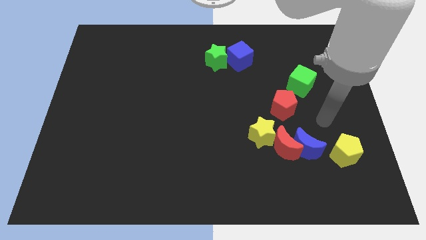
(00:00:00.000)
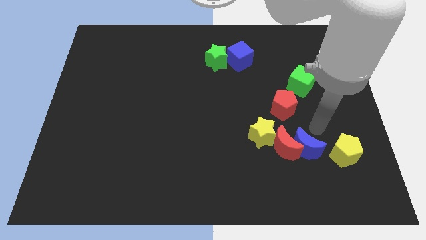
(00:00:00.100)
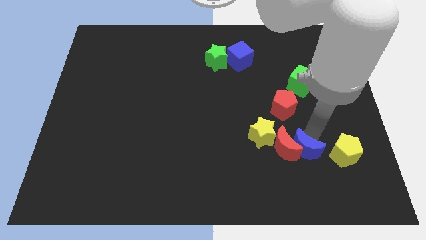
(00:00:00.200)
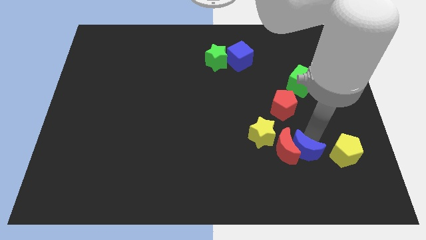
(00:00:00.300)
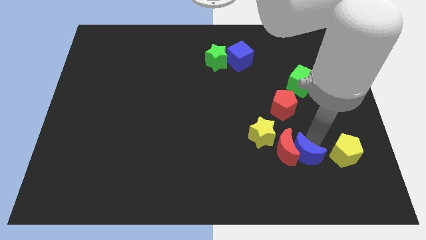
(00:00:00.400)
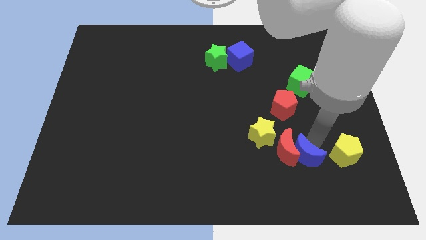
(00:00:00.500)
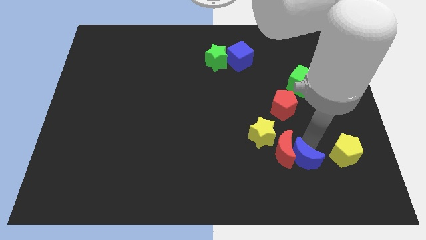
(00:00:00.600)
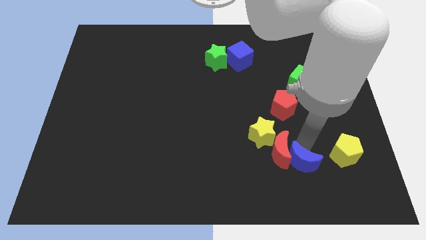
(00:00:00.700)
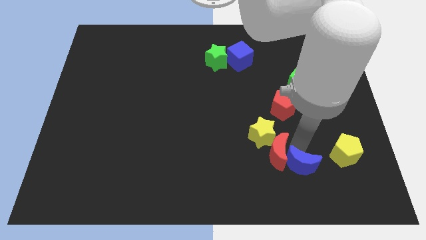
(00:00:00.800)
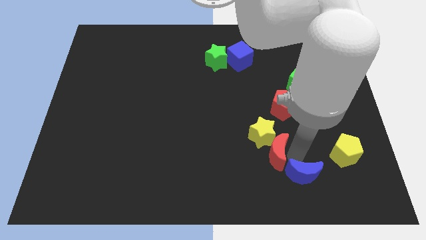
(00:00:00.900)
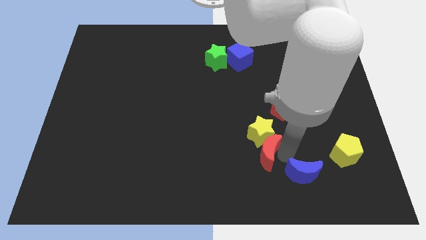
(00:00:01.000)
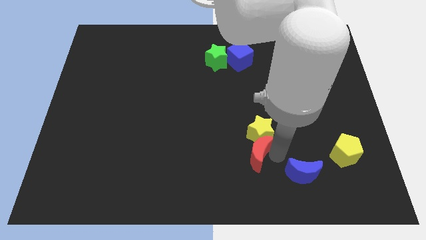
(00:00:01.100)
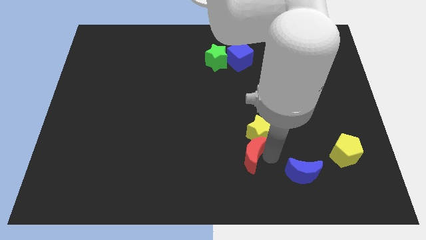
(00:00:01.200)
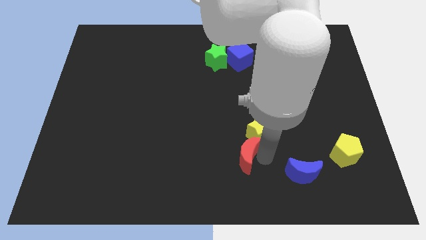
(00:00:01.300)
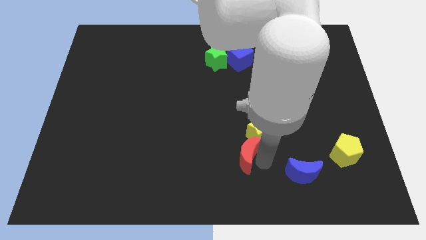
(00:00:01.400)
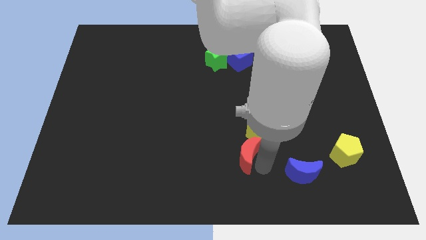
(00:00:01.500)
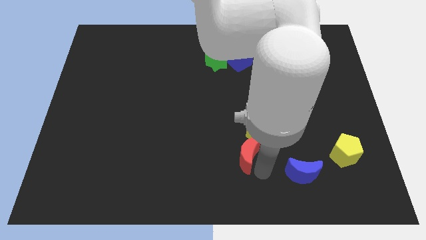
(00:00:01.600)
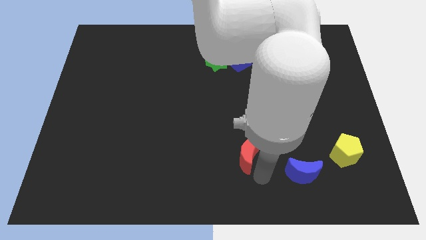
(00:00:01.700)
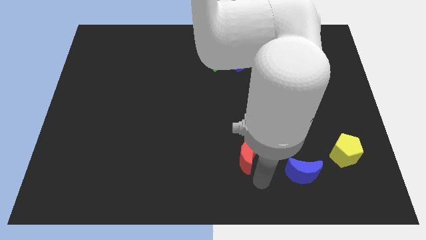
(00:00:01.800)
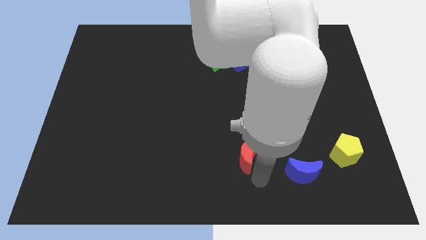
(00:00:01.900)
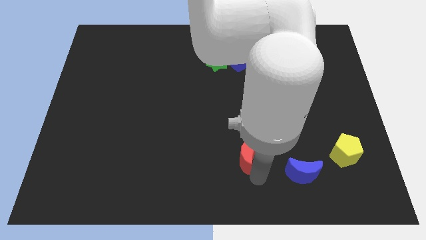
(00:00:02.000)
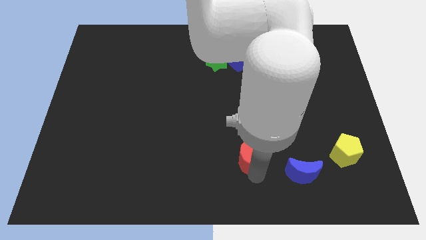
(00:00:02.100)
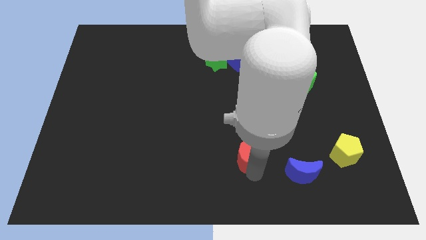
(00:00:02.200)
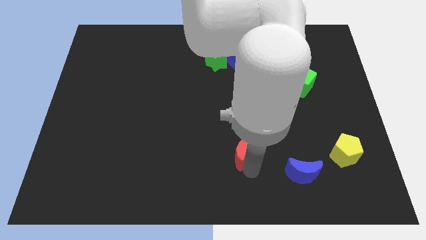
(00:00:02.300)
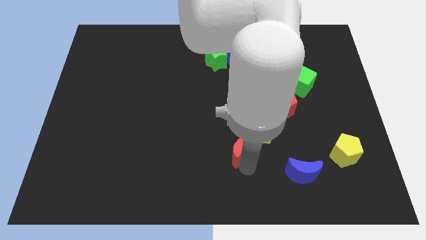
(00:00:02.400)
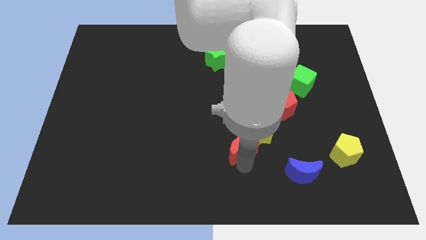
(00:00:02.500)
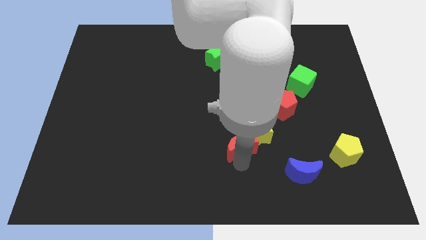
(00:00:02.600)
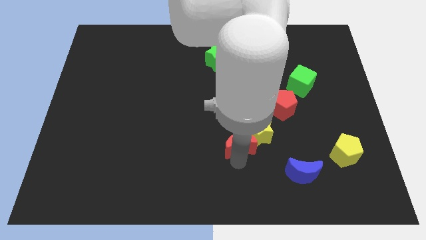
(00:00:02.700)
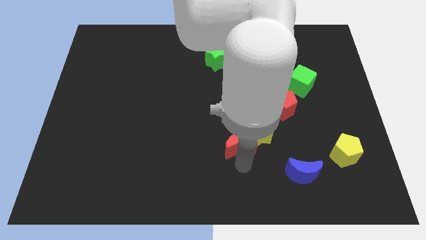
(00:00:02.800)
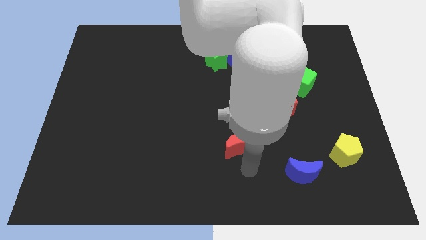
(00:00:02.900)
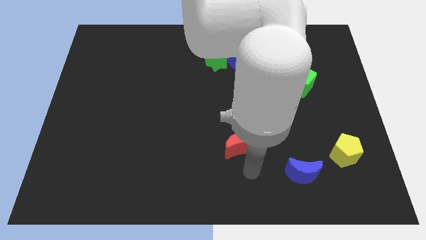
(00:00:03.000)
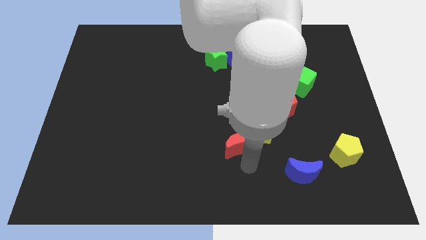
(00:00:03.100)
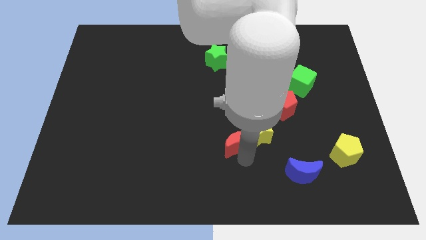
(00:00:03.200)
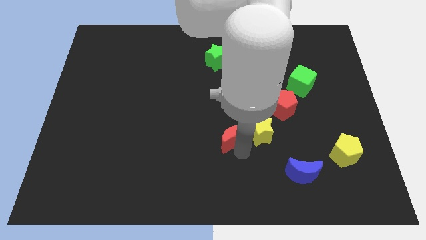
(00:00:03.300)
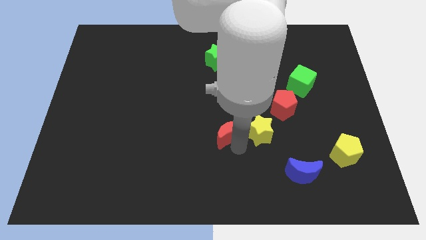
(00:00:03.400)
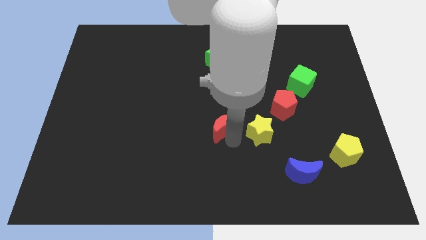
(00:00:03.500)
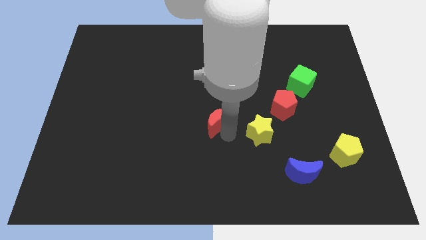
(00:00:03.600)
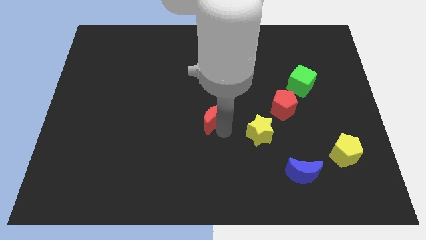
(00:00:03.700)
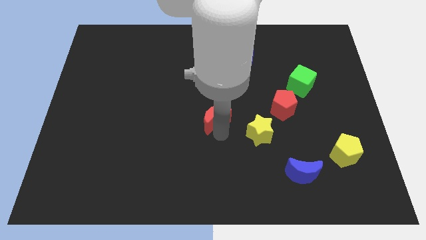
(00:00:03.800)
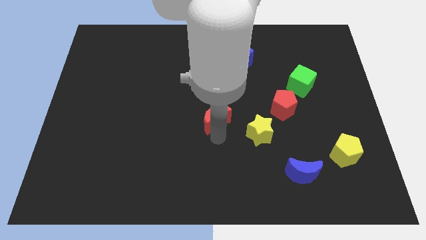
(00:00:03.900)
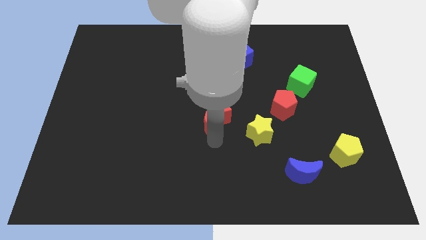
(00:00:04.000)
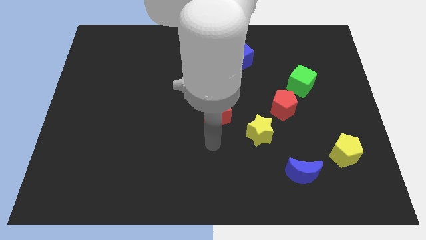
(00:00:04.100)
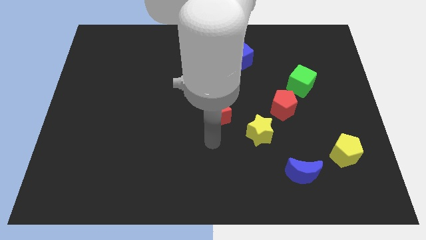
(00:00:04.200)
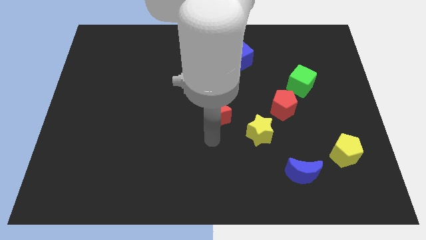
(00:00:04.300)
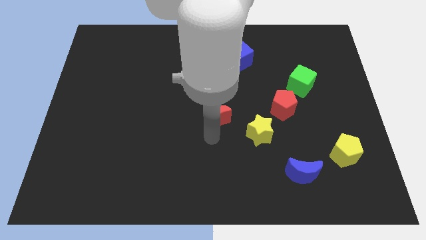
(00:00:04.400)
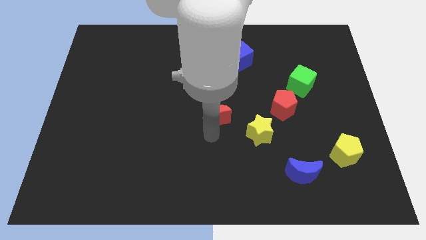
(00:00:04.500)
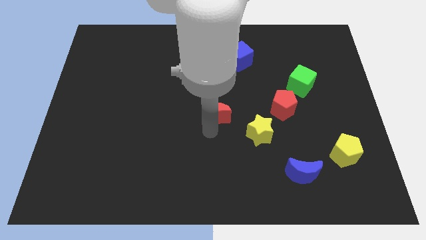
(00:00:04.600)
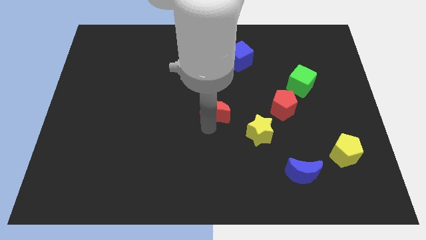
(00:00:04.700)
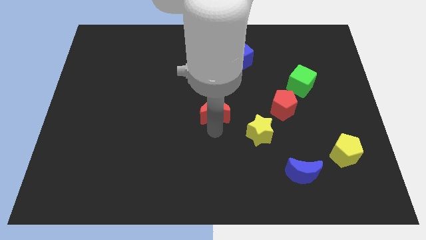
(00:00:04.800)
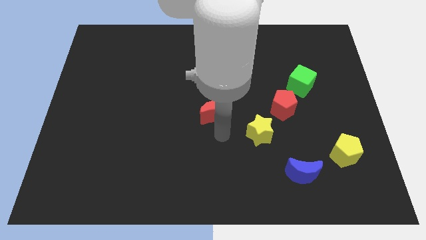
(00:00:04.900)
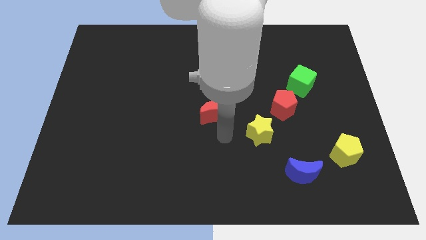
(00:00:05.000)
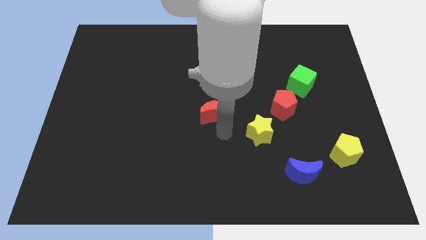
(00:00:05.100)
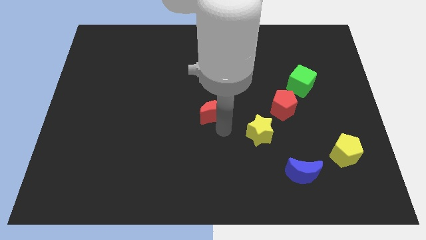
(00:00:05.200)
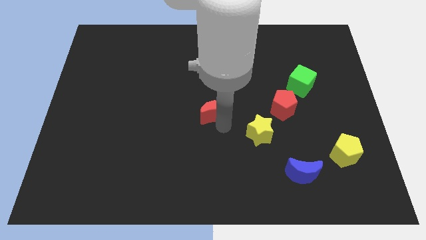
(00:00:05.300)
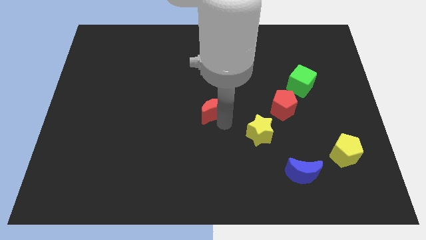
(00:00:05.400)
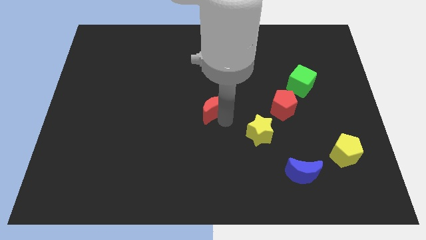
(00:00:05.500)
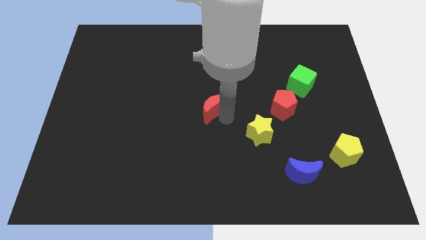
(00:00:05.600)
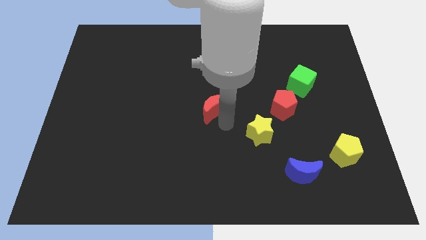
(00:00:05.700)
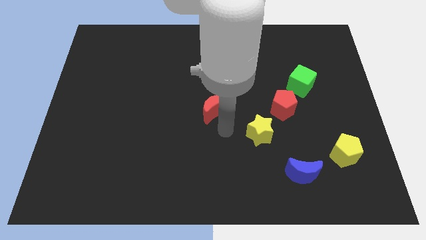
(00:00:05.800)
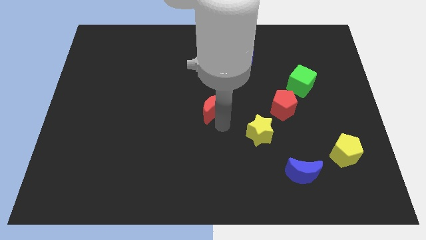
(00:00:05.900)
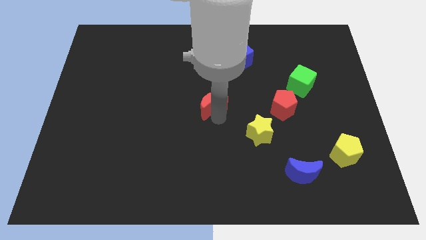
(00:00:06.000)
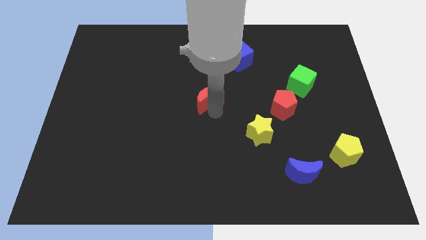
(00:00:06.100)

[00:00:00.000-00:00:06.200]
slide the red moon diagonally up and left

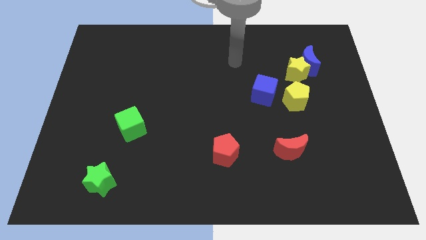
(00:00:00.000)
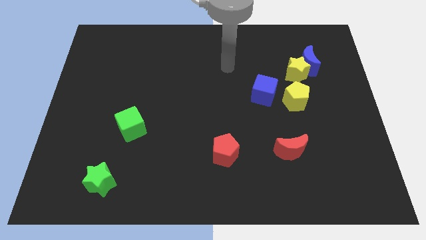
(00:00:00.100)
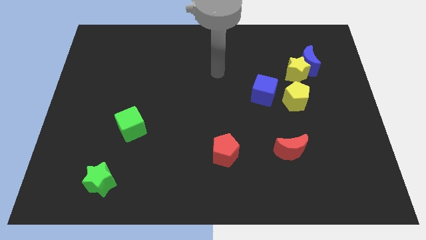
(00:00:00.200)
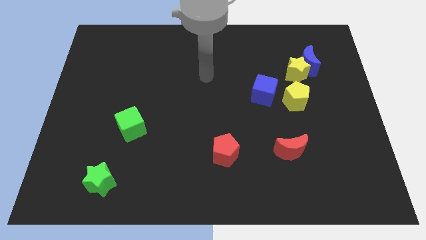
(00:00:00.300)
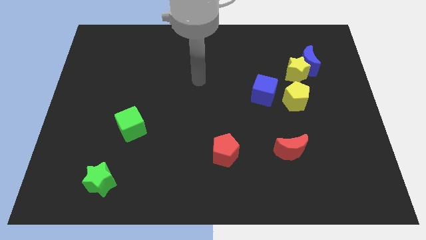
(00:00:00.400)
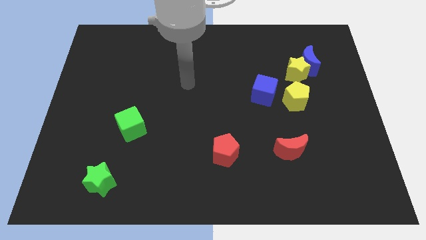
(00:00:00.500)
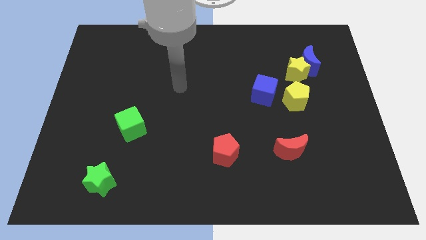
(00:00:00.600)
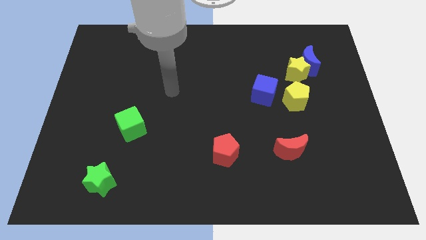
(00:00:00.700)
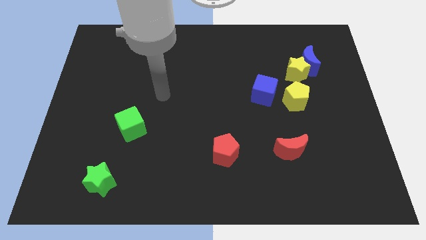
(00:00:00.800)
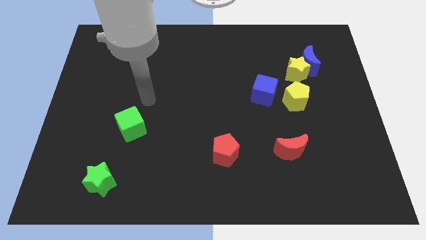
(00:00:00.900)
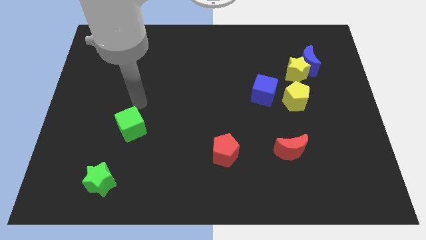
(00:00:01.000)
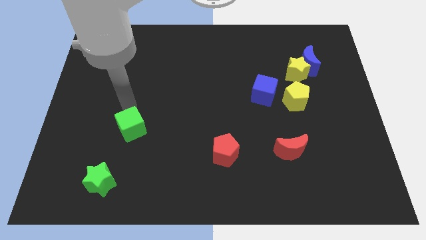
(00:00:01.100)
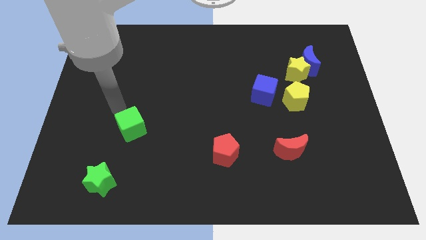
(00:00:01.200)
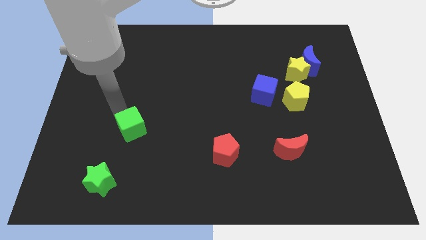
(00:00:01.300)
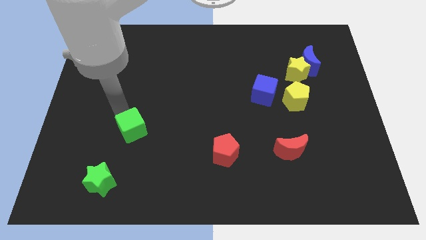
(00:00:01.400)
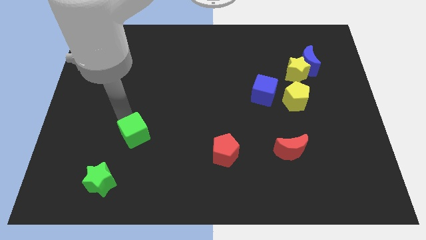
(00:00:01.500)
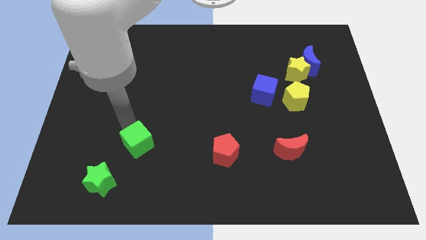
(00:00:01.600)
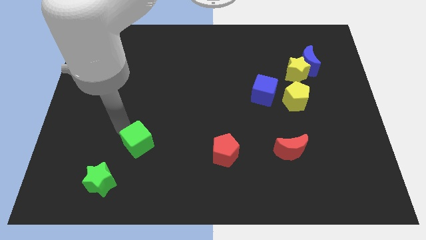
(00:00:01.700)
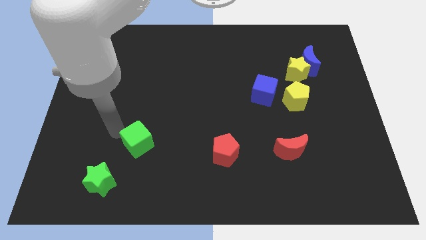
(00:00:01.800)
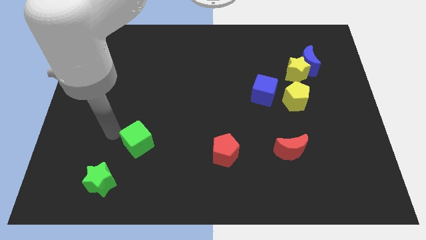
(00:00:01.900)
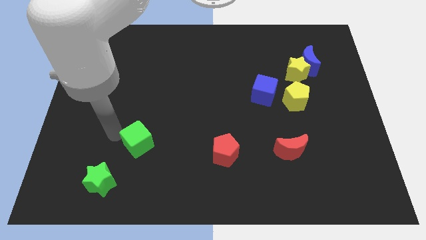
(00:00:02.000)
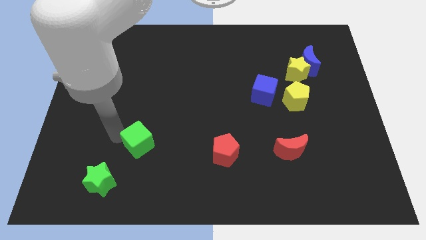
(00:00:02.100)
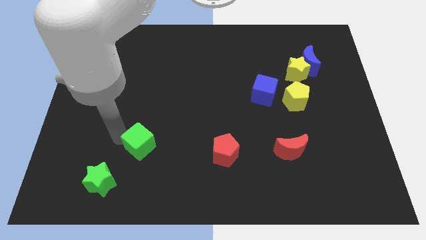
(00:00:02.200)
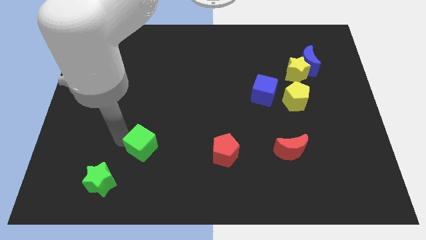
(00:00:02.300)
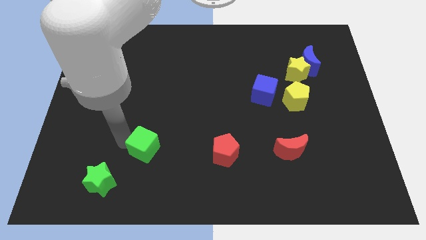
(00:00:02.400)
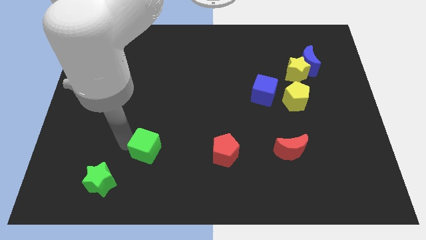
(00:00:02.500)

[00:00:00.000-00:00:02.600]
push the green cube a little bit diagonally down and to the right
